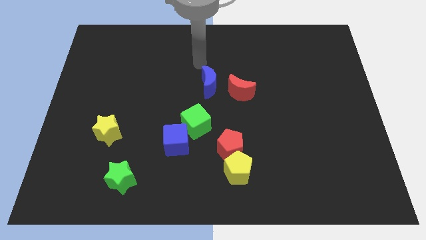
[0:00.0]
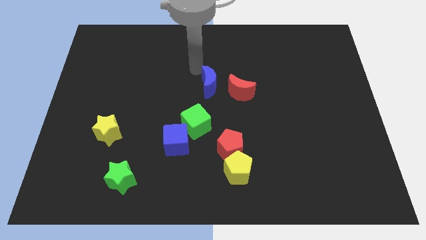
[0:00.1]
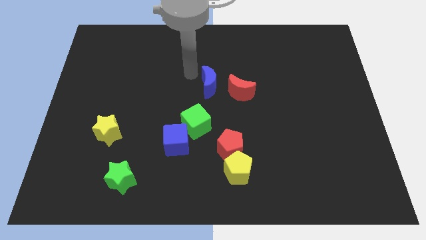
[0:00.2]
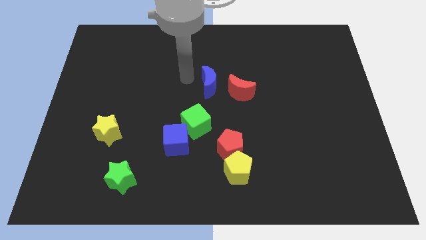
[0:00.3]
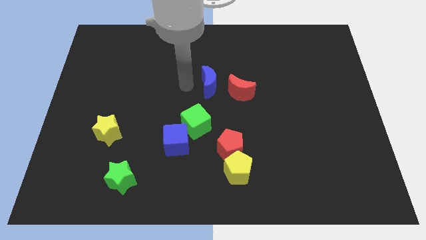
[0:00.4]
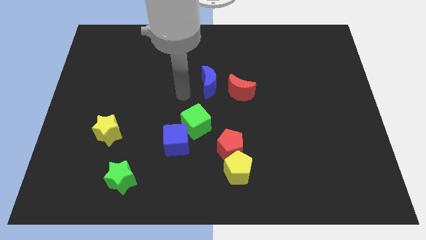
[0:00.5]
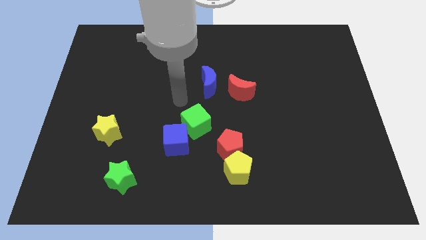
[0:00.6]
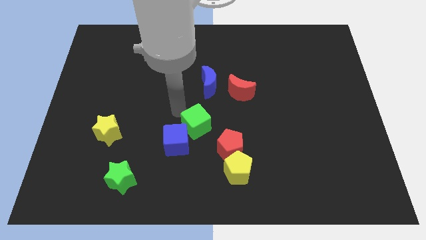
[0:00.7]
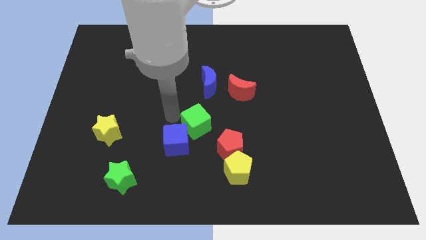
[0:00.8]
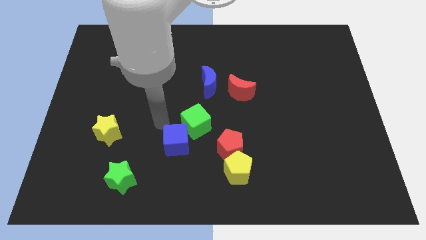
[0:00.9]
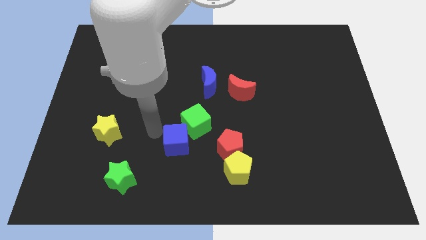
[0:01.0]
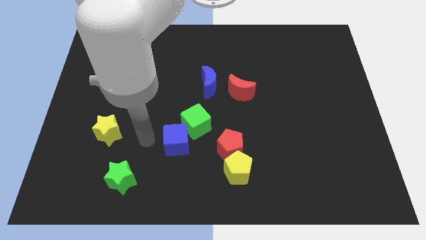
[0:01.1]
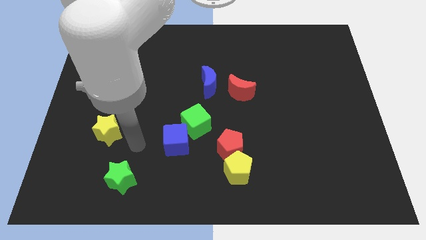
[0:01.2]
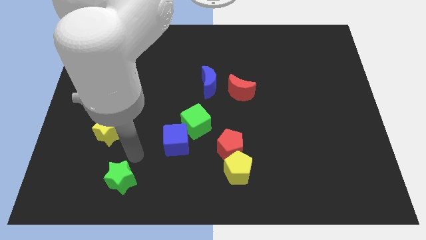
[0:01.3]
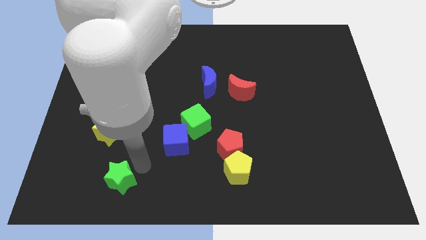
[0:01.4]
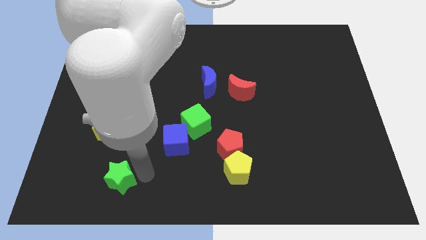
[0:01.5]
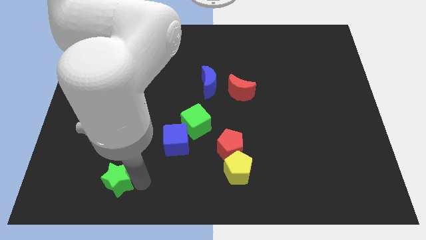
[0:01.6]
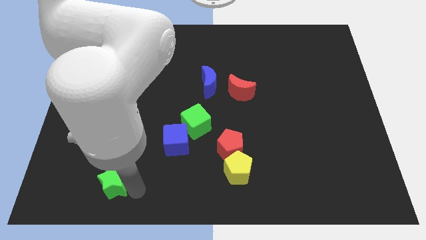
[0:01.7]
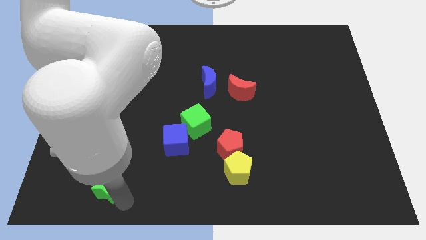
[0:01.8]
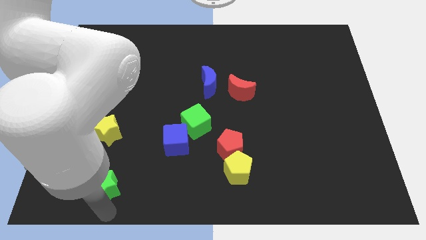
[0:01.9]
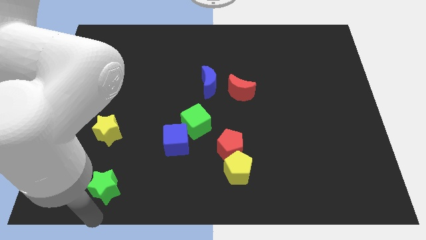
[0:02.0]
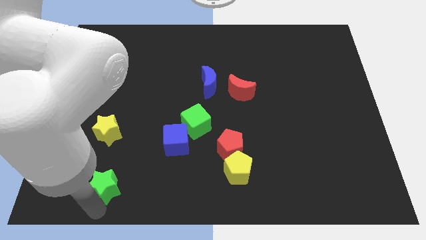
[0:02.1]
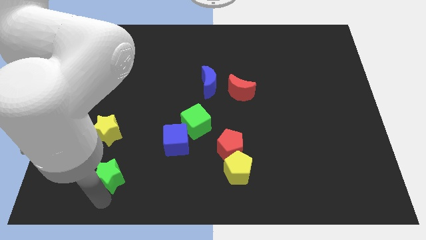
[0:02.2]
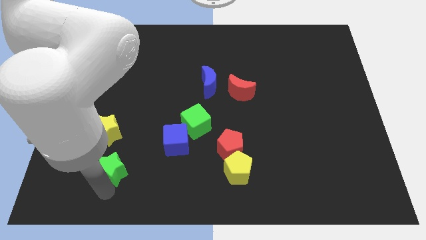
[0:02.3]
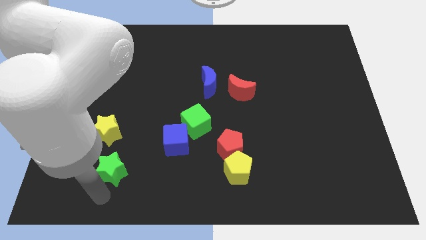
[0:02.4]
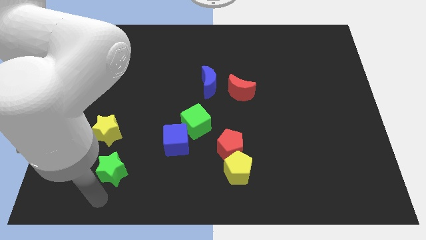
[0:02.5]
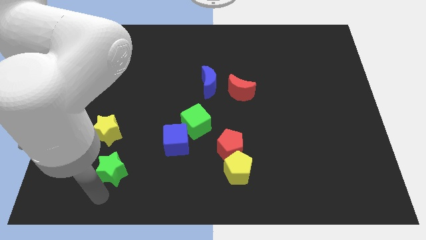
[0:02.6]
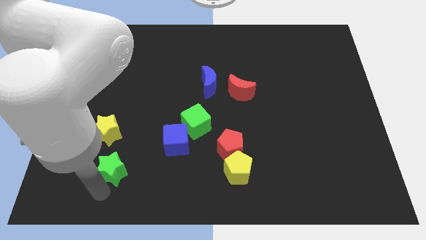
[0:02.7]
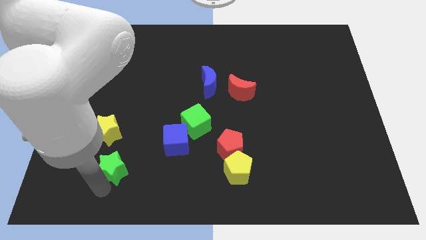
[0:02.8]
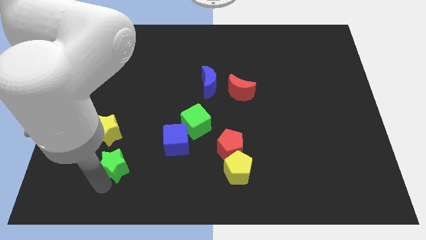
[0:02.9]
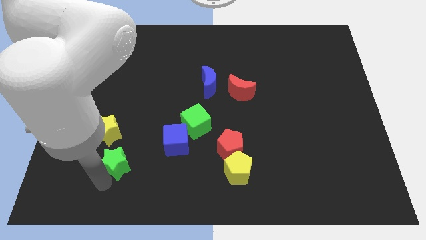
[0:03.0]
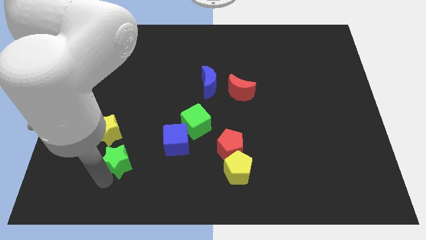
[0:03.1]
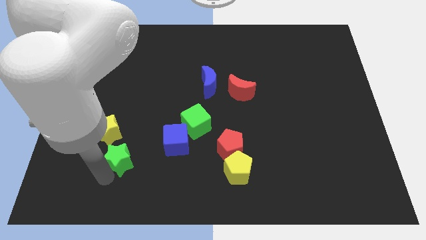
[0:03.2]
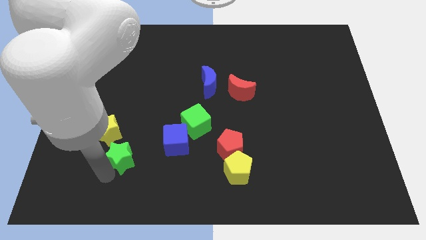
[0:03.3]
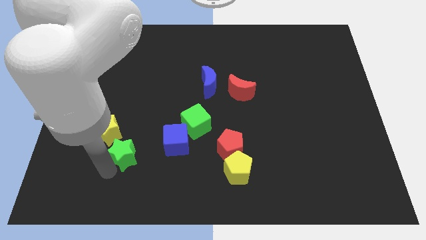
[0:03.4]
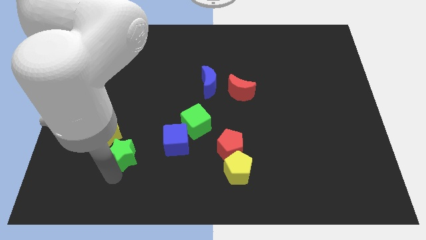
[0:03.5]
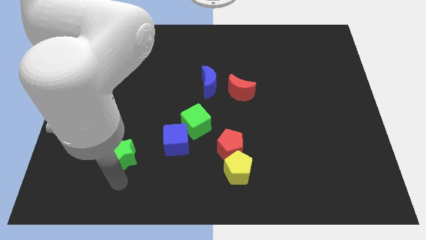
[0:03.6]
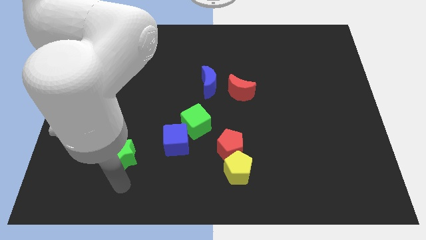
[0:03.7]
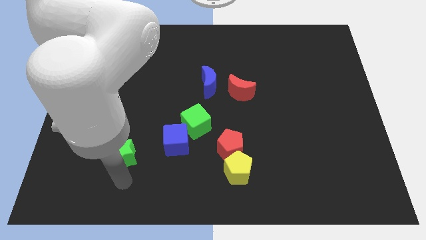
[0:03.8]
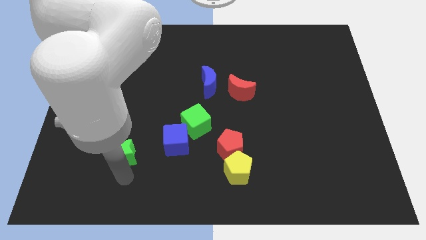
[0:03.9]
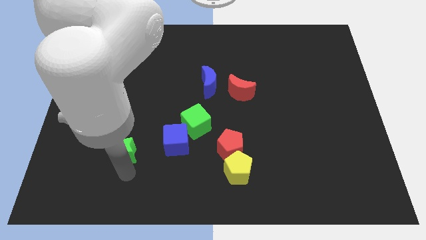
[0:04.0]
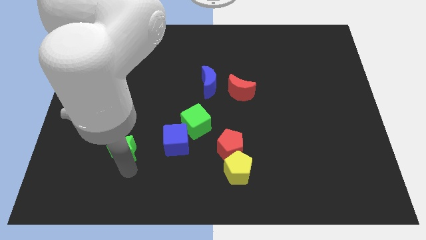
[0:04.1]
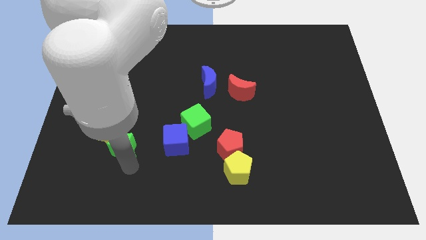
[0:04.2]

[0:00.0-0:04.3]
slightly move the green star upwards

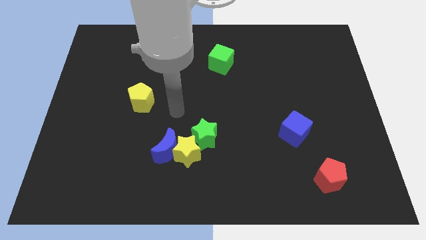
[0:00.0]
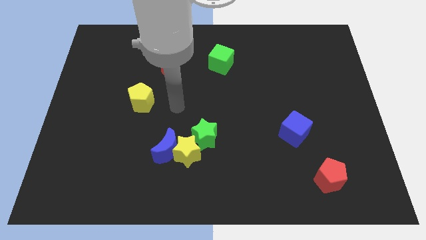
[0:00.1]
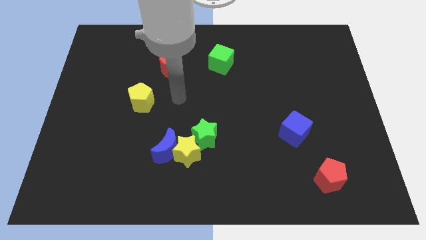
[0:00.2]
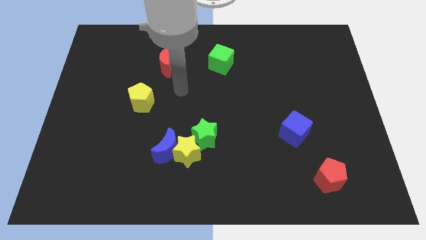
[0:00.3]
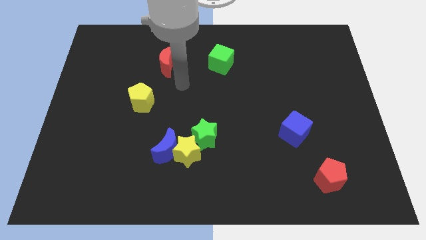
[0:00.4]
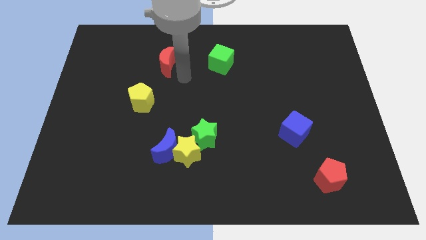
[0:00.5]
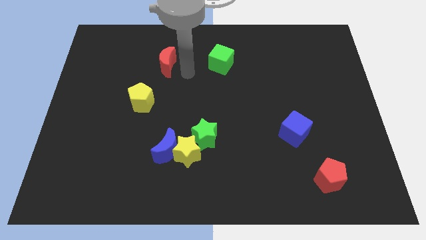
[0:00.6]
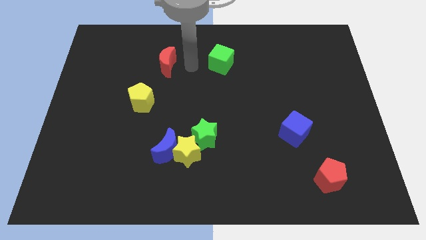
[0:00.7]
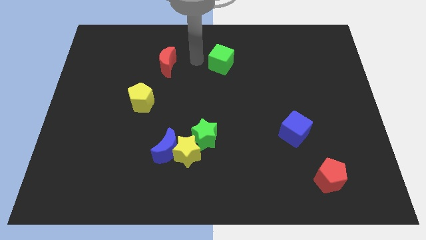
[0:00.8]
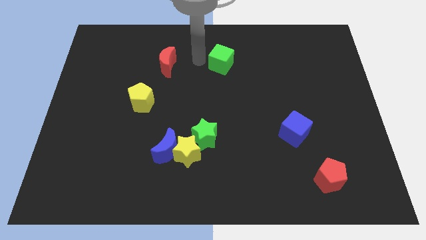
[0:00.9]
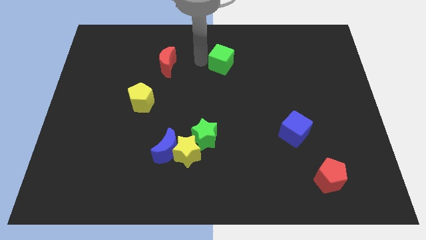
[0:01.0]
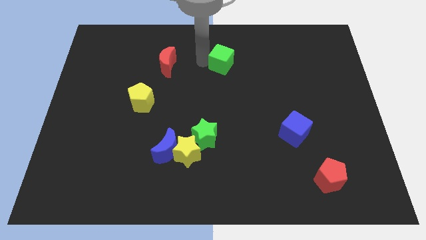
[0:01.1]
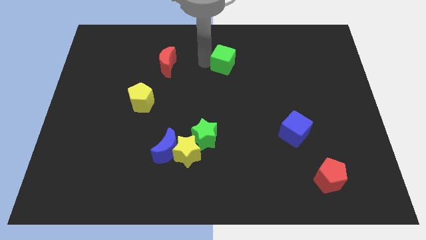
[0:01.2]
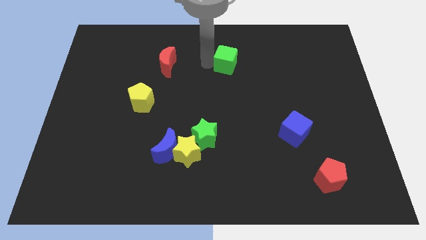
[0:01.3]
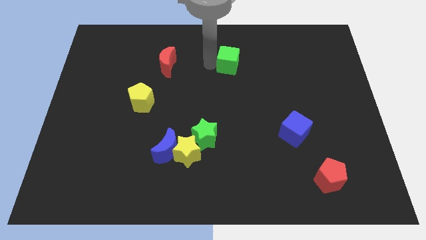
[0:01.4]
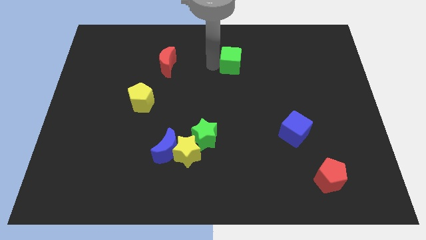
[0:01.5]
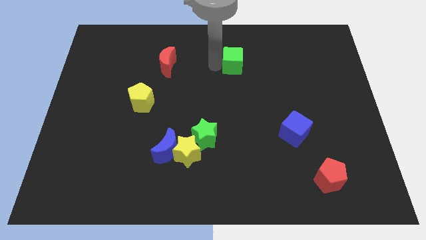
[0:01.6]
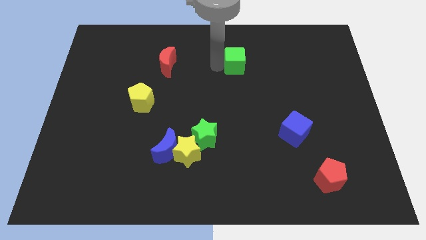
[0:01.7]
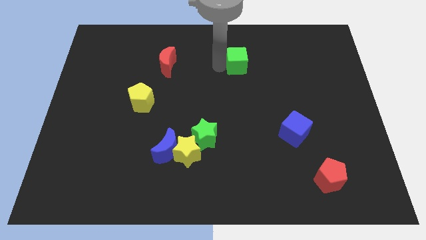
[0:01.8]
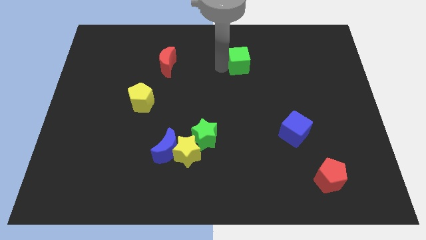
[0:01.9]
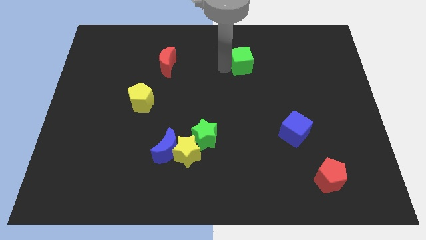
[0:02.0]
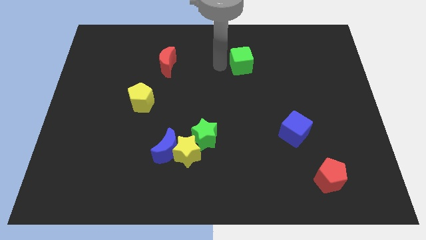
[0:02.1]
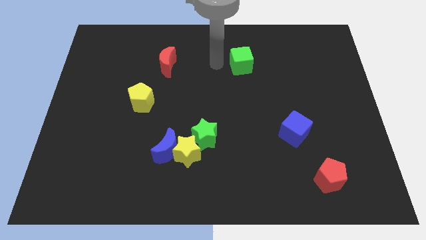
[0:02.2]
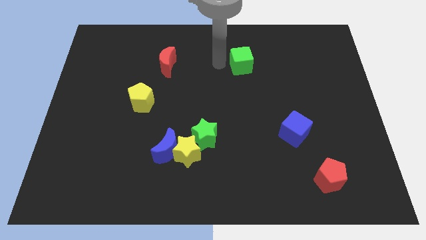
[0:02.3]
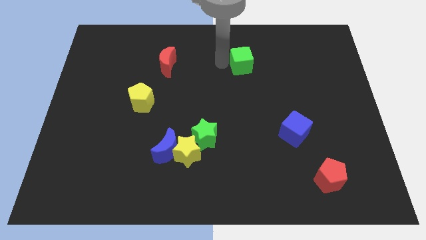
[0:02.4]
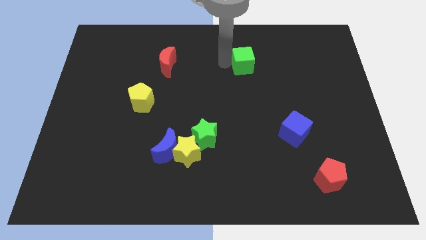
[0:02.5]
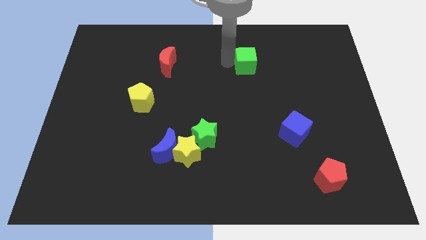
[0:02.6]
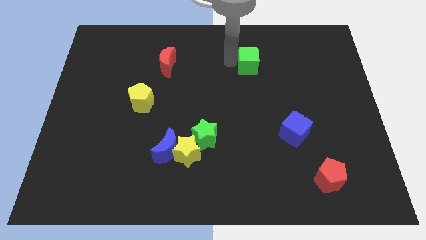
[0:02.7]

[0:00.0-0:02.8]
slide the green cube a bit right

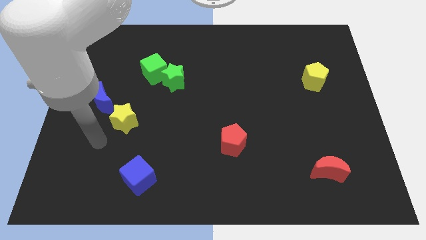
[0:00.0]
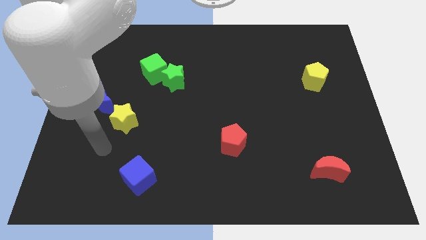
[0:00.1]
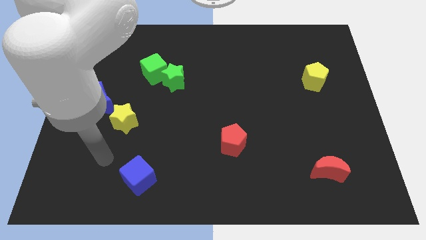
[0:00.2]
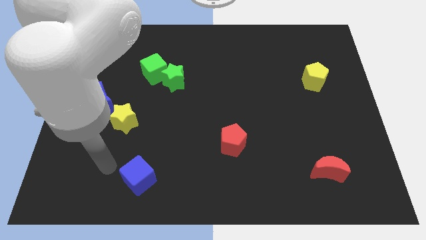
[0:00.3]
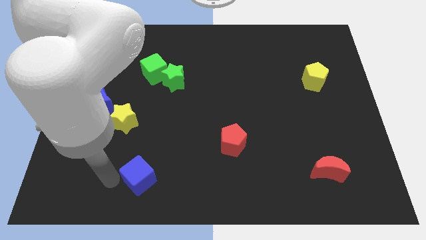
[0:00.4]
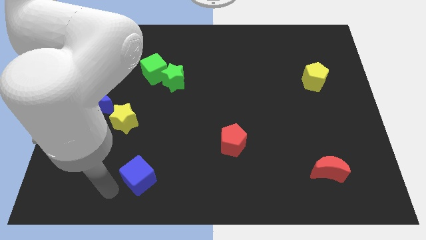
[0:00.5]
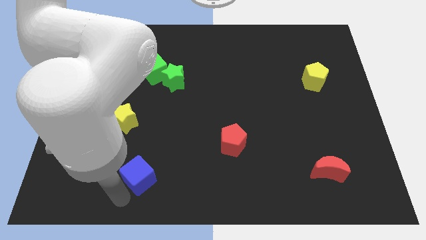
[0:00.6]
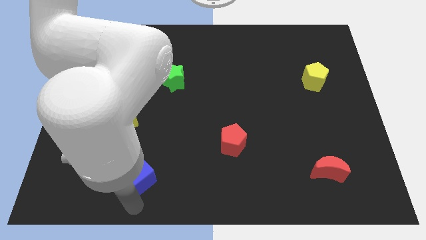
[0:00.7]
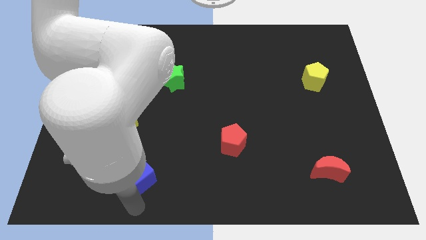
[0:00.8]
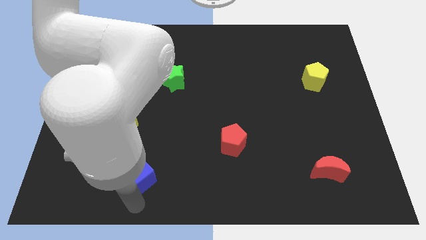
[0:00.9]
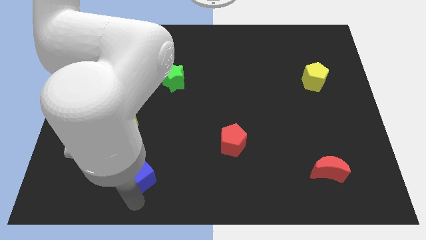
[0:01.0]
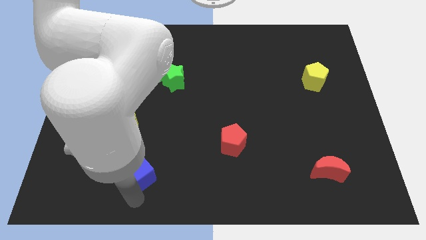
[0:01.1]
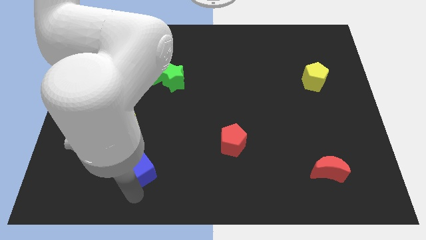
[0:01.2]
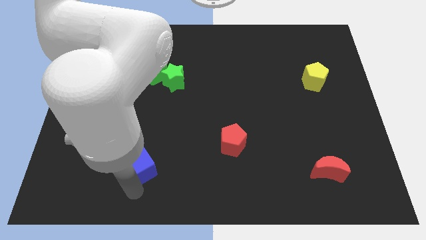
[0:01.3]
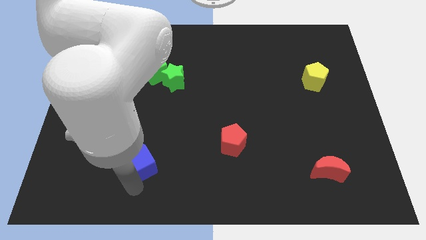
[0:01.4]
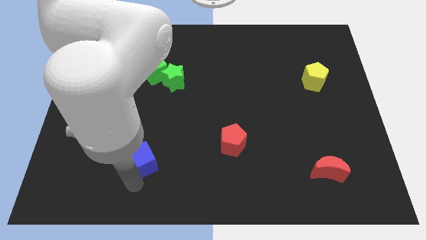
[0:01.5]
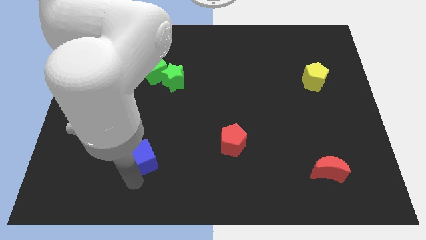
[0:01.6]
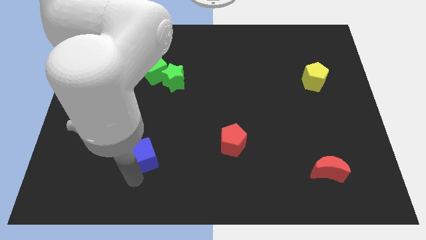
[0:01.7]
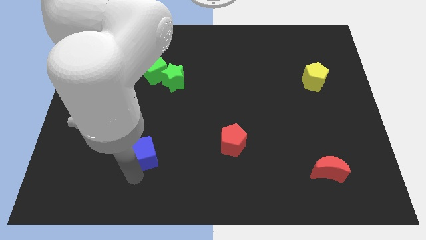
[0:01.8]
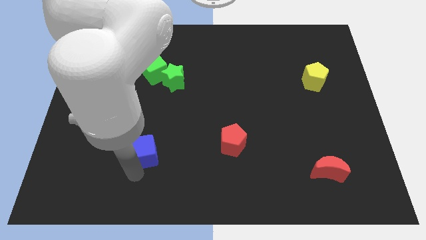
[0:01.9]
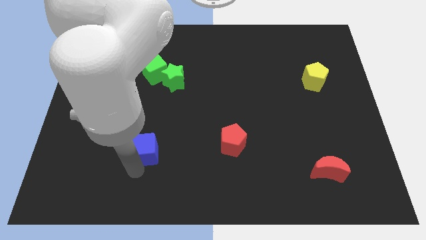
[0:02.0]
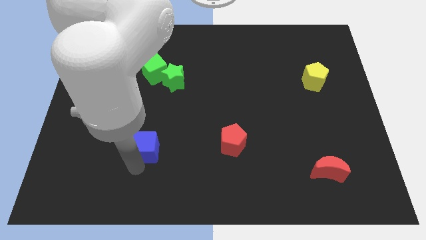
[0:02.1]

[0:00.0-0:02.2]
slightly move the blue cube up
